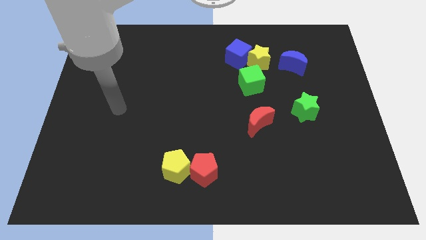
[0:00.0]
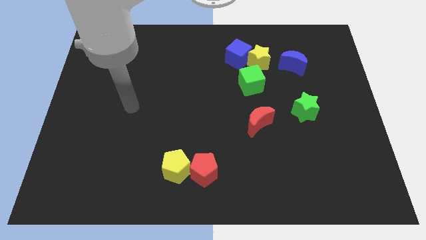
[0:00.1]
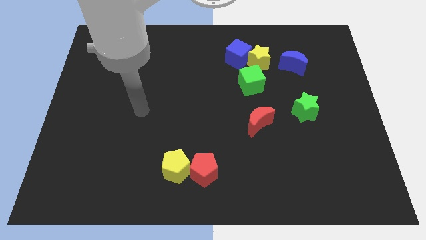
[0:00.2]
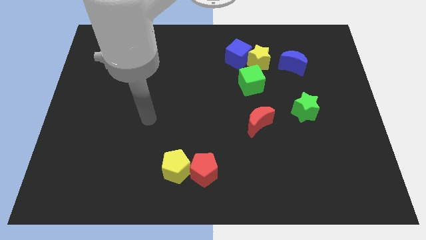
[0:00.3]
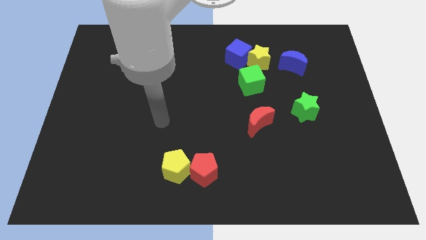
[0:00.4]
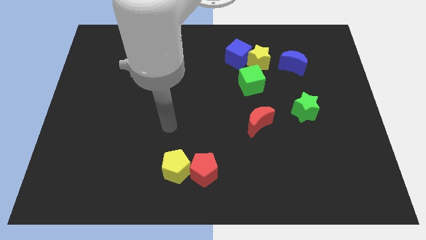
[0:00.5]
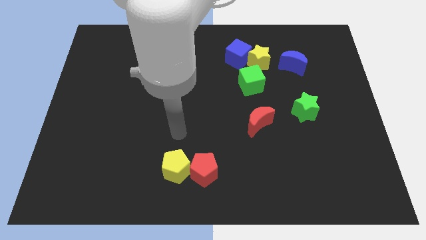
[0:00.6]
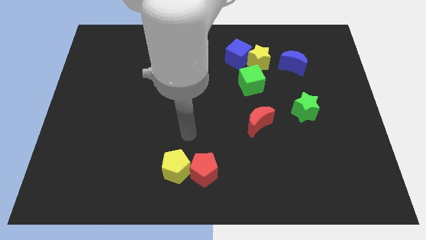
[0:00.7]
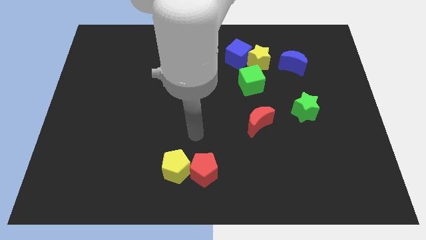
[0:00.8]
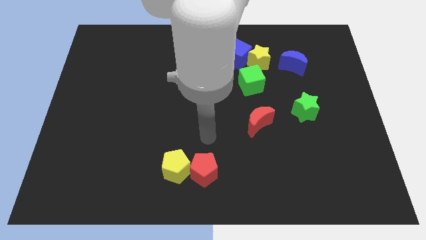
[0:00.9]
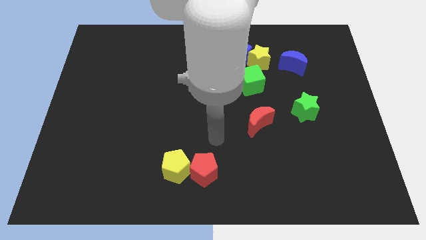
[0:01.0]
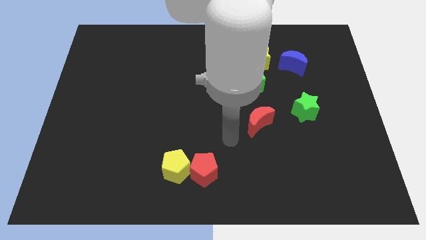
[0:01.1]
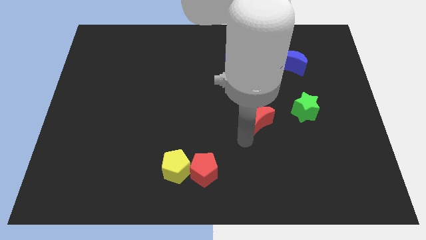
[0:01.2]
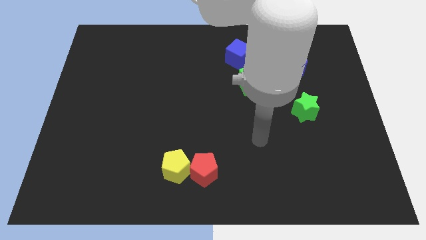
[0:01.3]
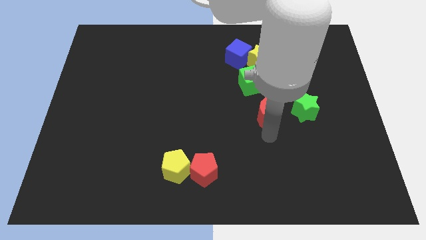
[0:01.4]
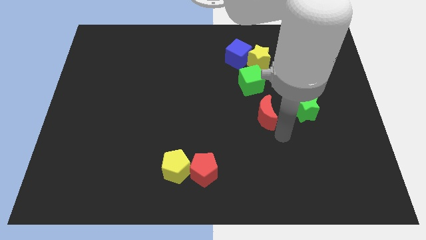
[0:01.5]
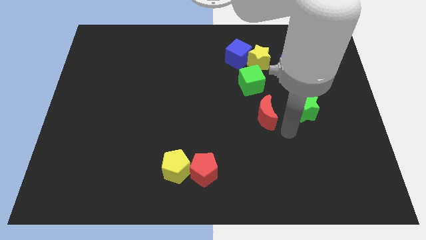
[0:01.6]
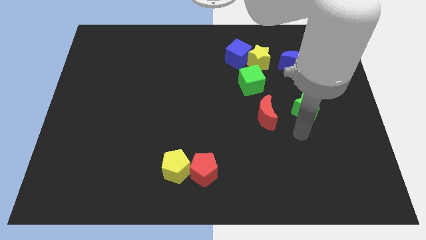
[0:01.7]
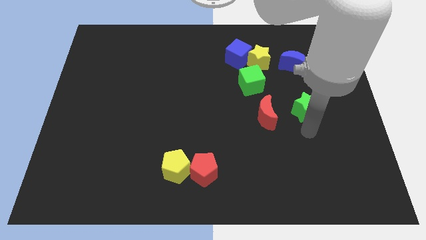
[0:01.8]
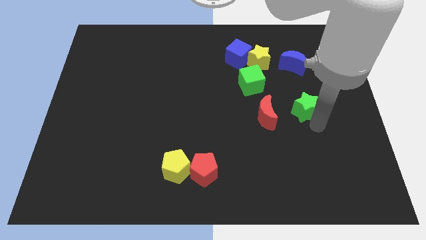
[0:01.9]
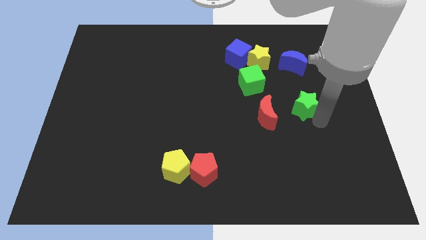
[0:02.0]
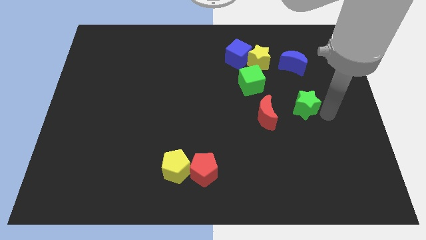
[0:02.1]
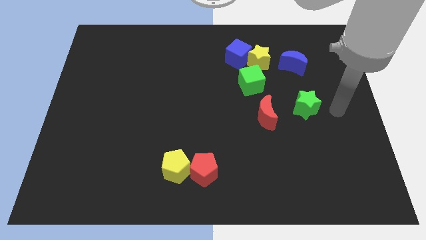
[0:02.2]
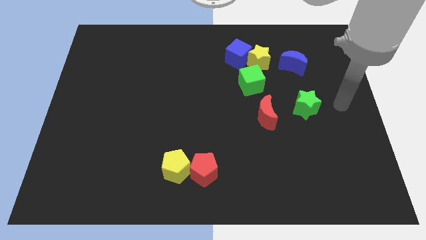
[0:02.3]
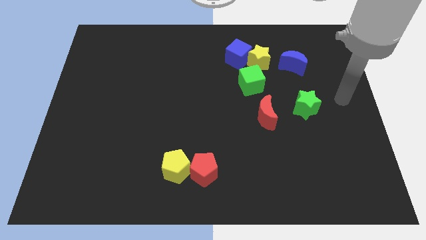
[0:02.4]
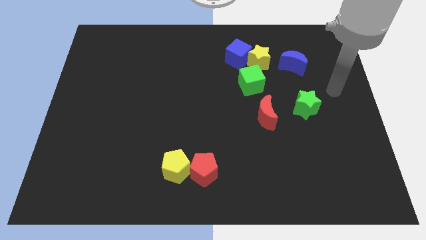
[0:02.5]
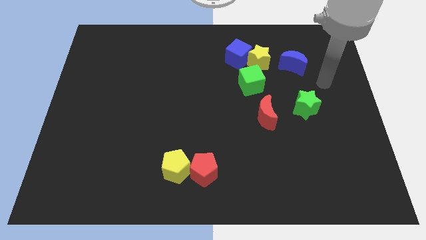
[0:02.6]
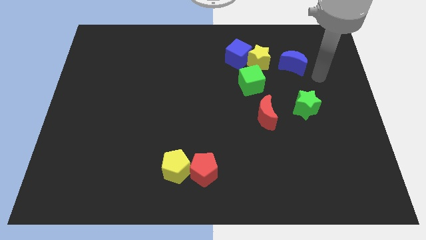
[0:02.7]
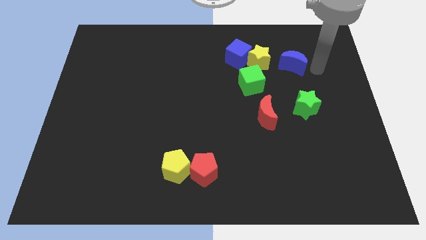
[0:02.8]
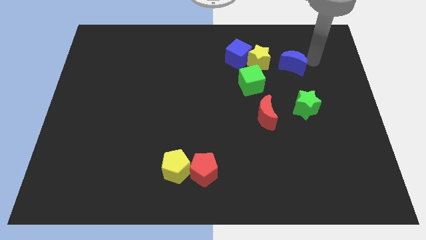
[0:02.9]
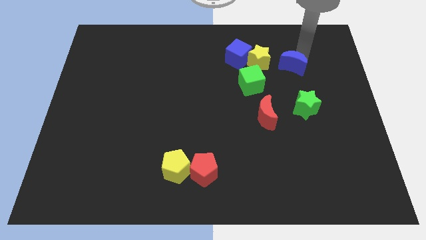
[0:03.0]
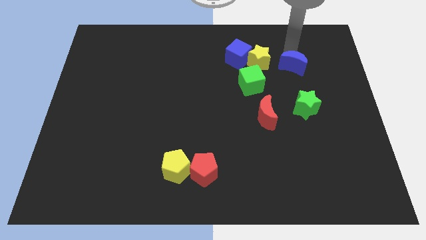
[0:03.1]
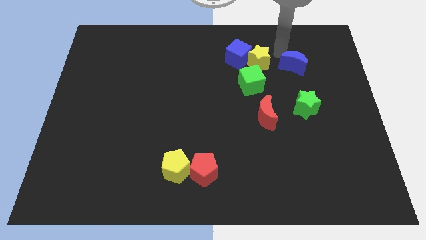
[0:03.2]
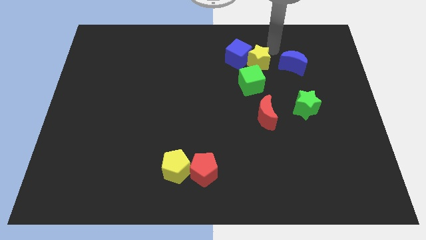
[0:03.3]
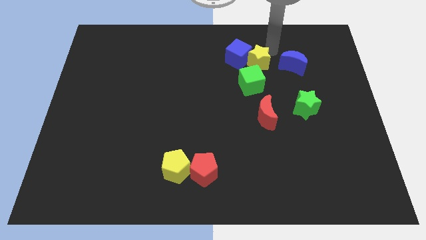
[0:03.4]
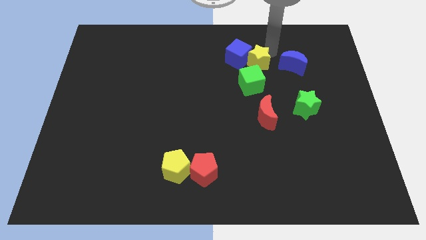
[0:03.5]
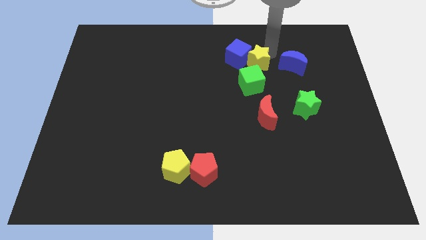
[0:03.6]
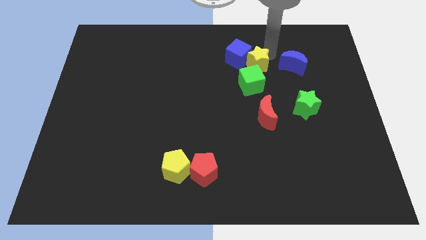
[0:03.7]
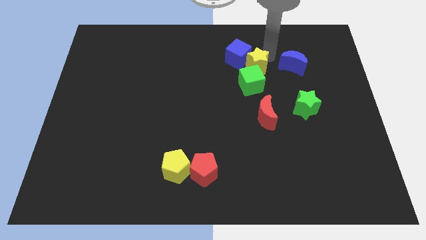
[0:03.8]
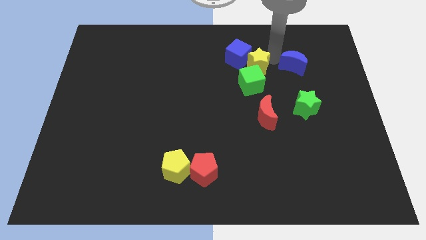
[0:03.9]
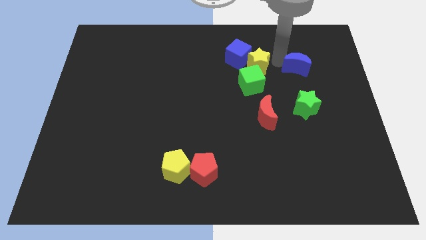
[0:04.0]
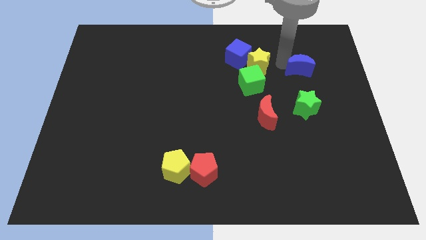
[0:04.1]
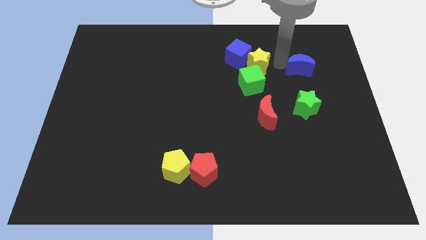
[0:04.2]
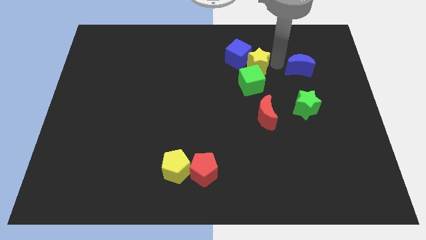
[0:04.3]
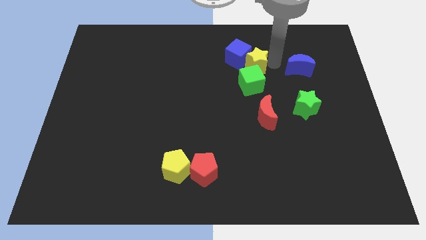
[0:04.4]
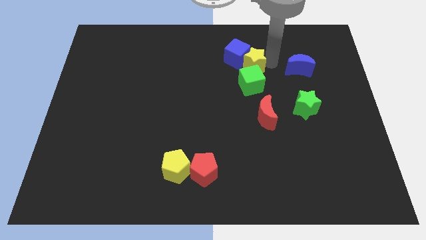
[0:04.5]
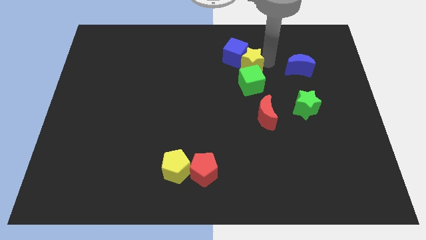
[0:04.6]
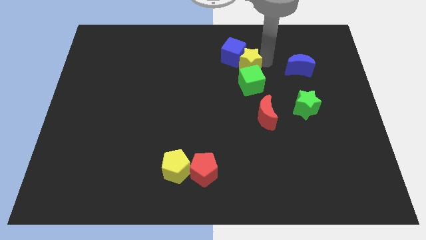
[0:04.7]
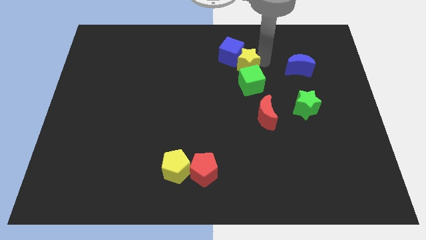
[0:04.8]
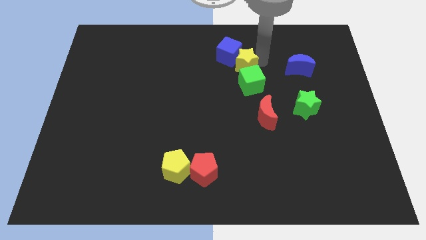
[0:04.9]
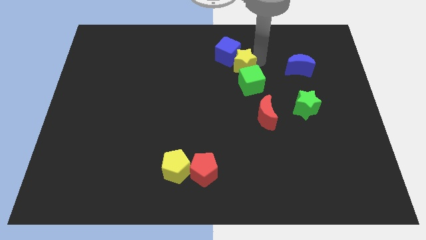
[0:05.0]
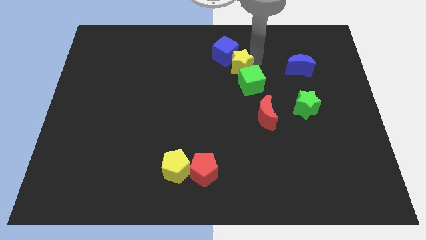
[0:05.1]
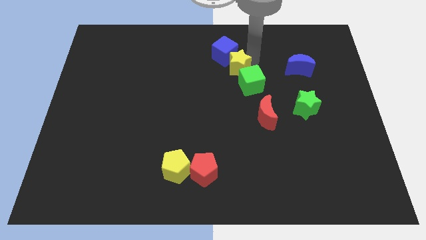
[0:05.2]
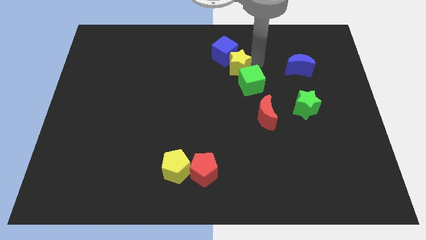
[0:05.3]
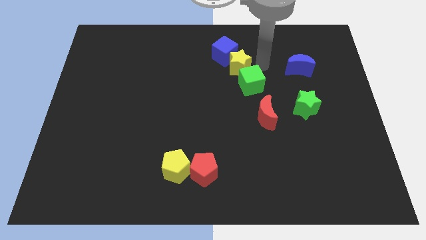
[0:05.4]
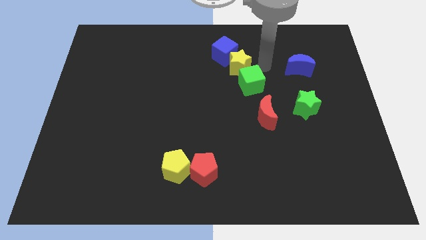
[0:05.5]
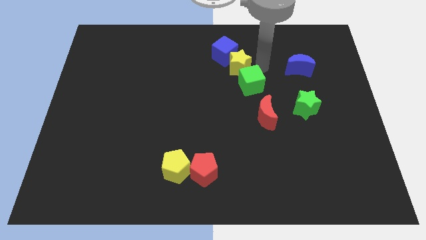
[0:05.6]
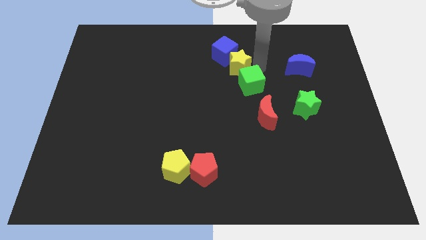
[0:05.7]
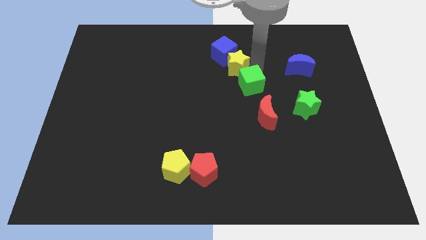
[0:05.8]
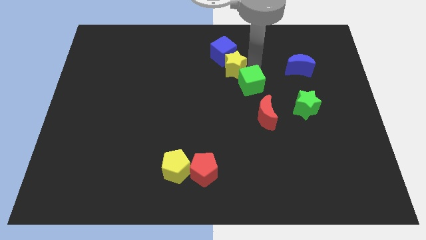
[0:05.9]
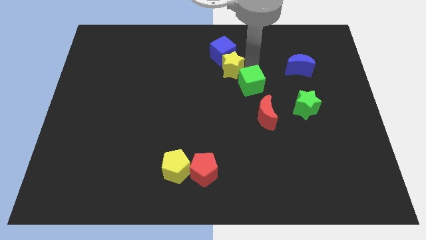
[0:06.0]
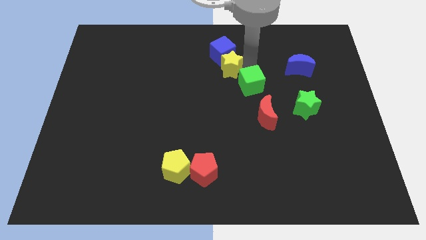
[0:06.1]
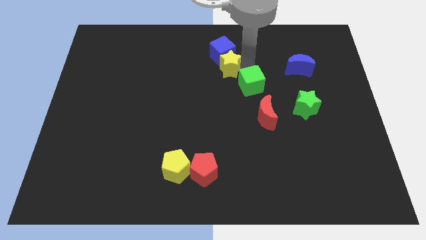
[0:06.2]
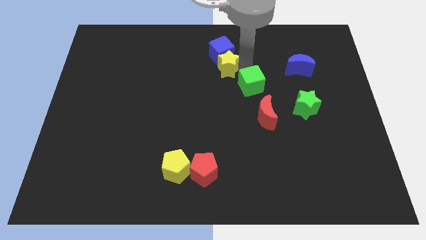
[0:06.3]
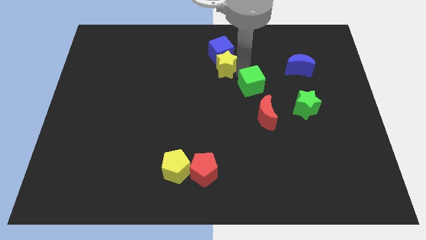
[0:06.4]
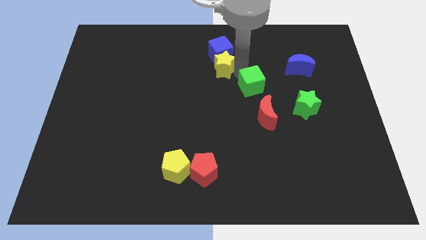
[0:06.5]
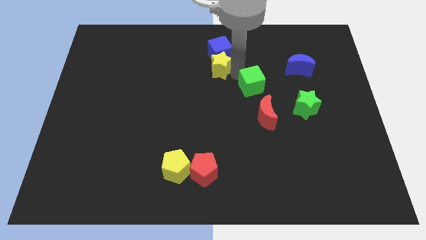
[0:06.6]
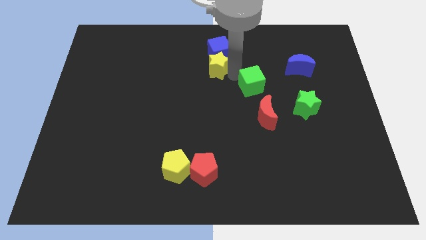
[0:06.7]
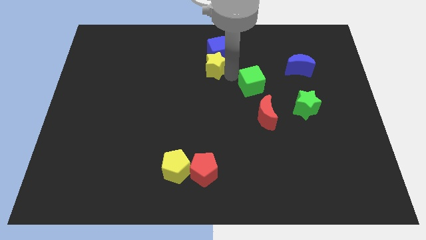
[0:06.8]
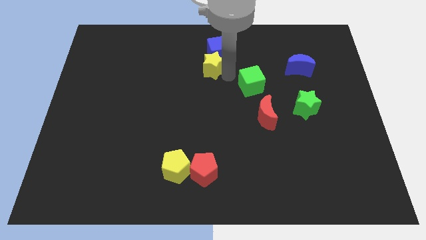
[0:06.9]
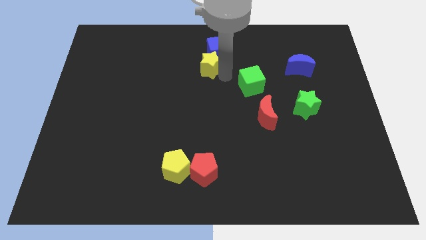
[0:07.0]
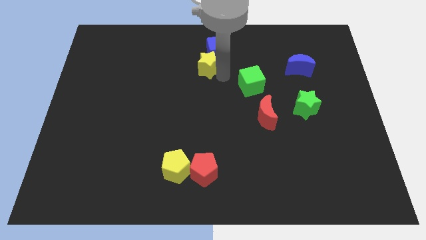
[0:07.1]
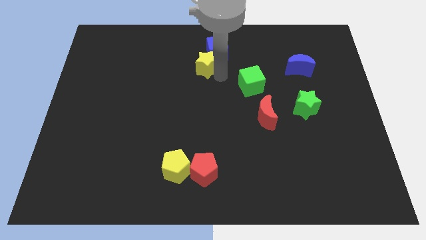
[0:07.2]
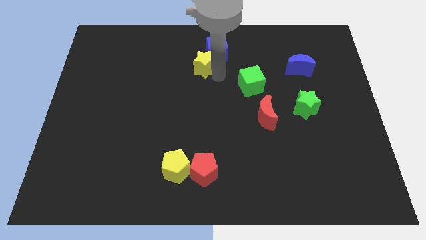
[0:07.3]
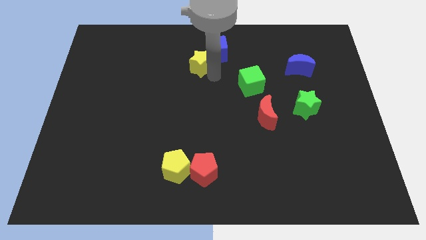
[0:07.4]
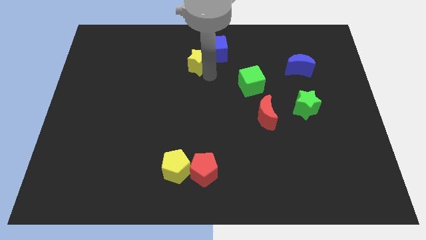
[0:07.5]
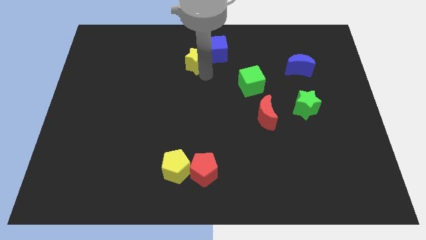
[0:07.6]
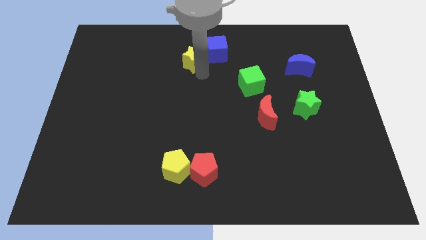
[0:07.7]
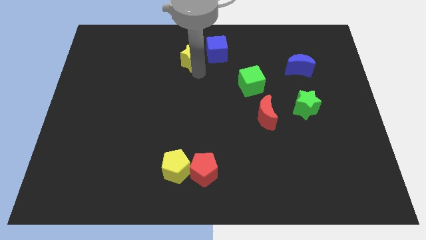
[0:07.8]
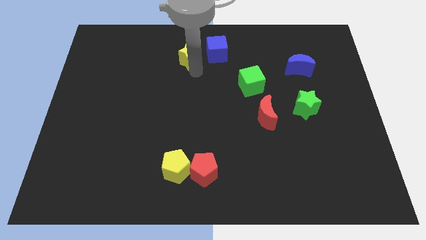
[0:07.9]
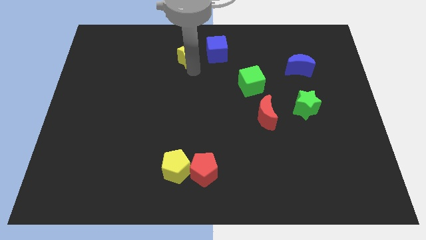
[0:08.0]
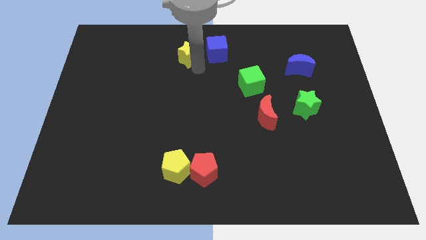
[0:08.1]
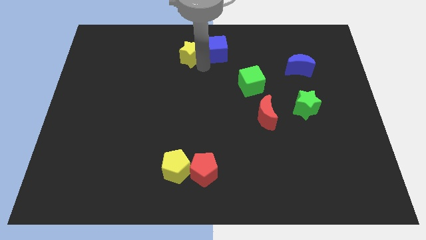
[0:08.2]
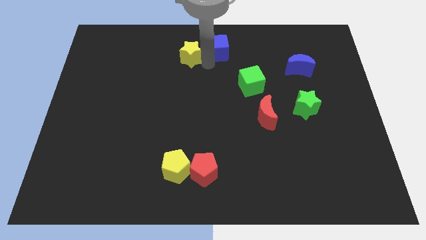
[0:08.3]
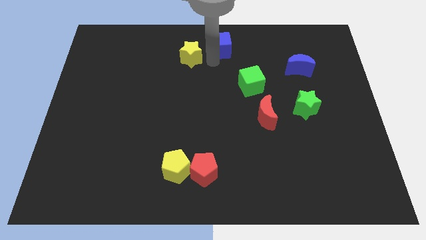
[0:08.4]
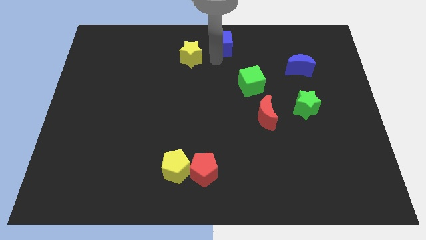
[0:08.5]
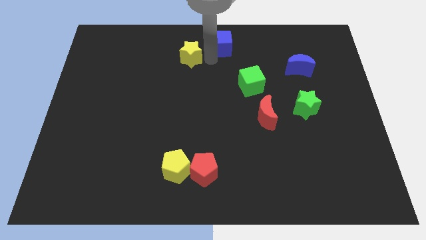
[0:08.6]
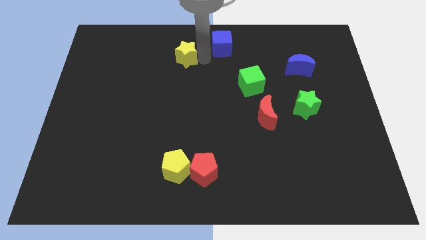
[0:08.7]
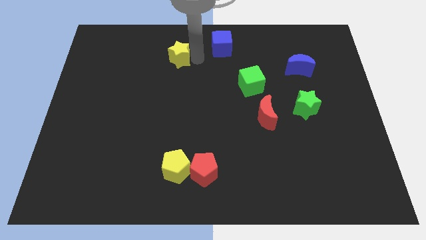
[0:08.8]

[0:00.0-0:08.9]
move the yellow star left
